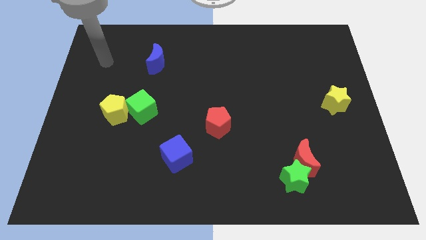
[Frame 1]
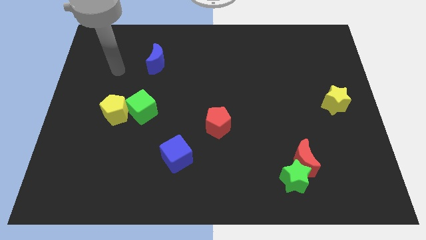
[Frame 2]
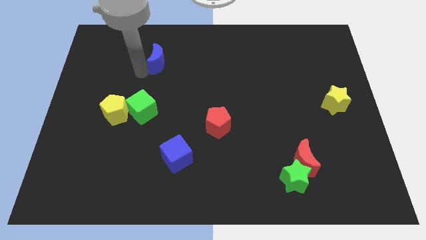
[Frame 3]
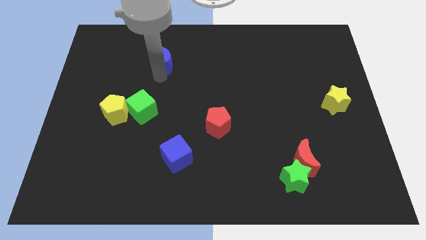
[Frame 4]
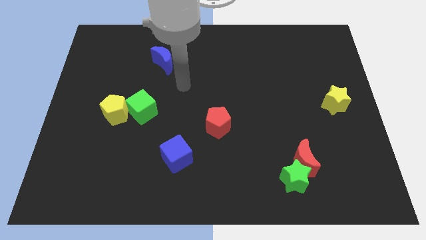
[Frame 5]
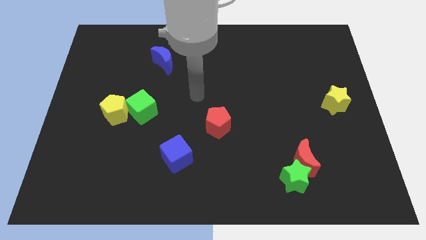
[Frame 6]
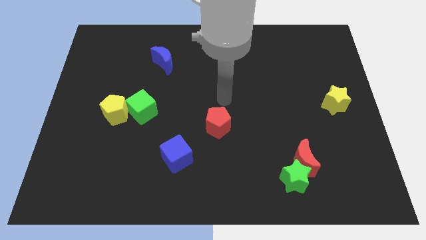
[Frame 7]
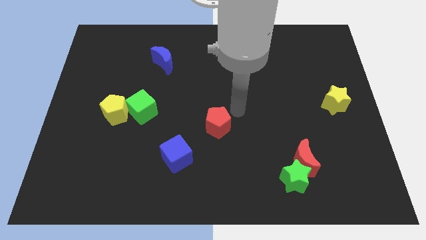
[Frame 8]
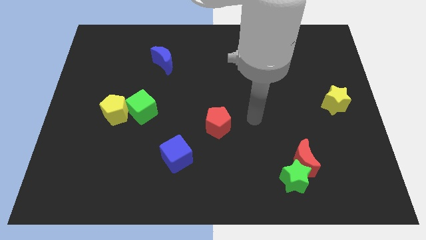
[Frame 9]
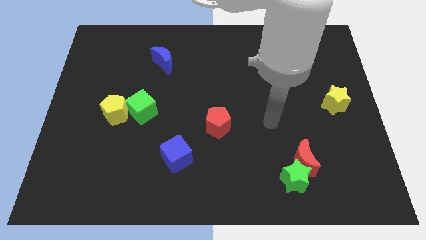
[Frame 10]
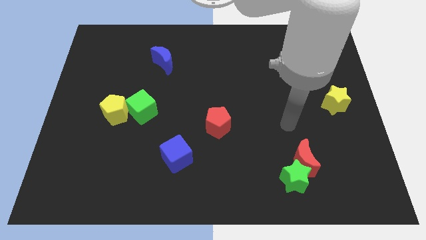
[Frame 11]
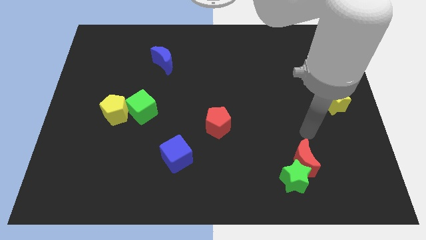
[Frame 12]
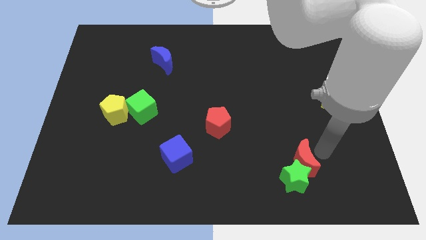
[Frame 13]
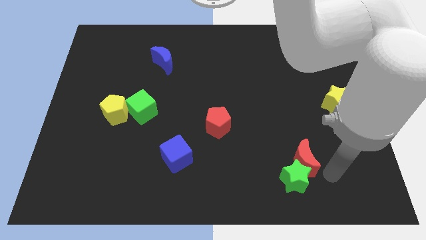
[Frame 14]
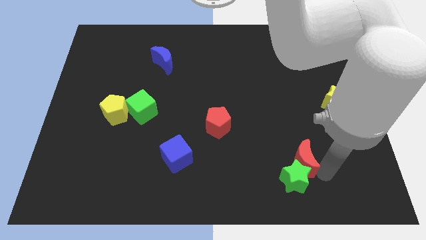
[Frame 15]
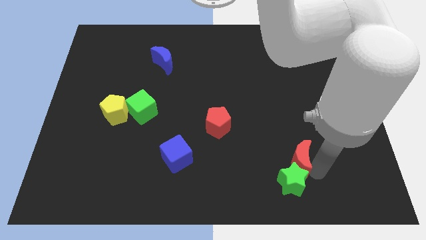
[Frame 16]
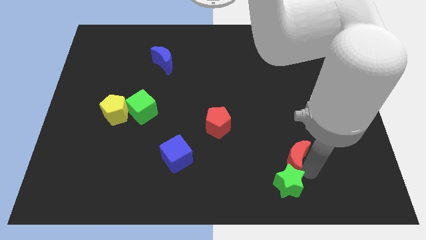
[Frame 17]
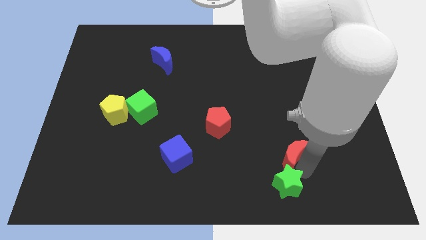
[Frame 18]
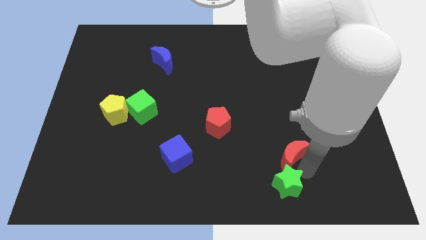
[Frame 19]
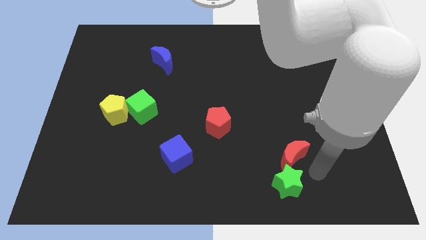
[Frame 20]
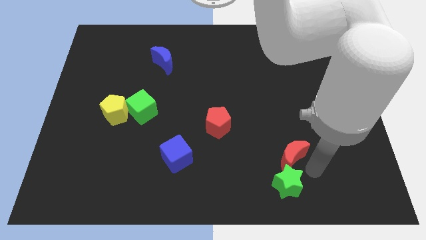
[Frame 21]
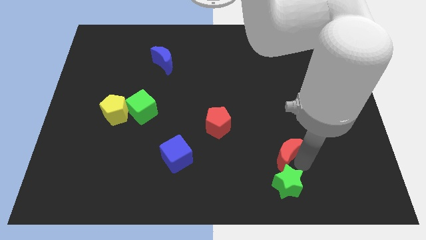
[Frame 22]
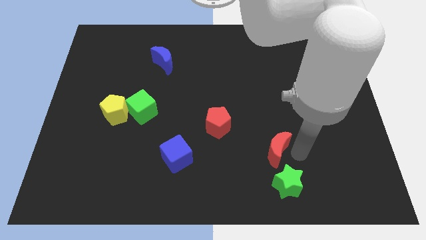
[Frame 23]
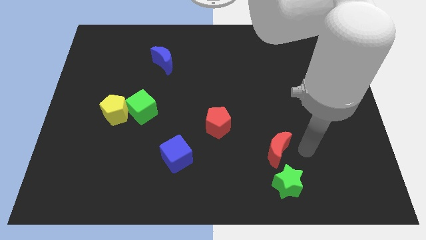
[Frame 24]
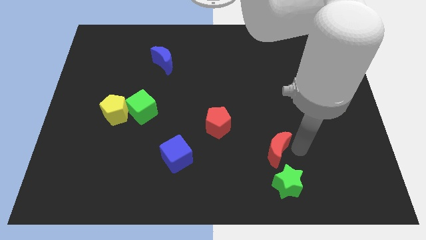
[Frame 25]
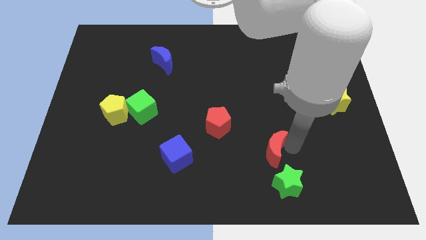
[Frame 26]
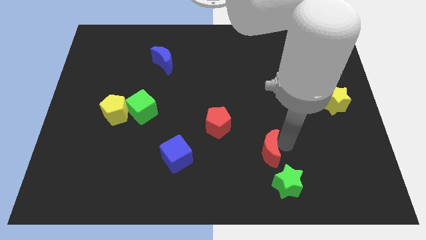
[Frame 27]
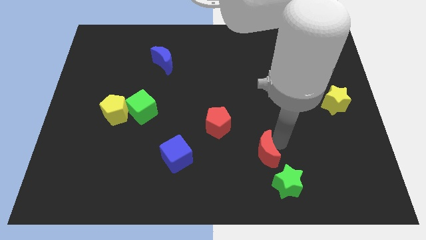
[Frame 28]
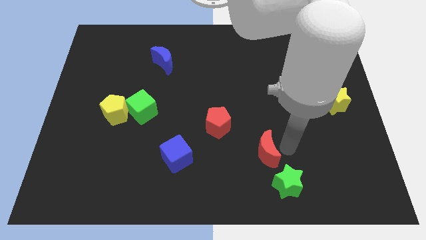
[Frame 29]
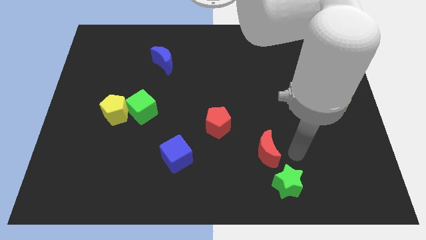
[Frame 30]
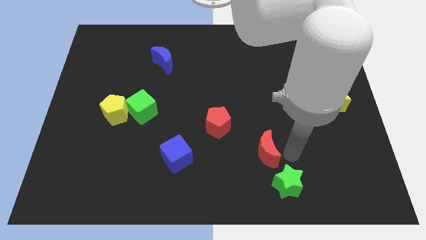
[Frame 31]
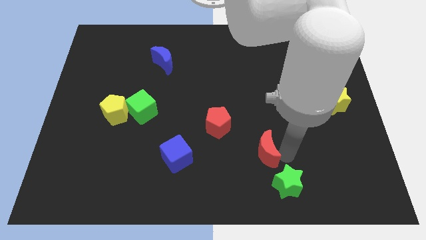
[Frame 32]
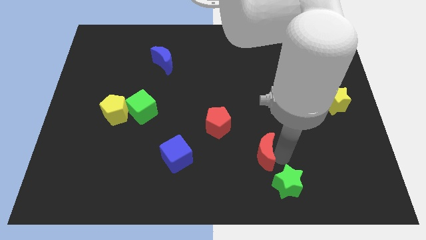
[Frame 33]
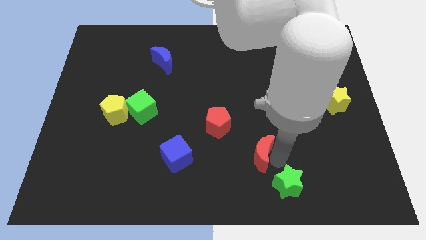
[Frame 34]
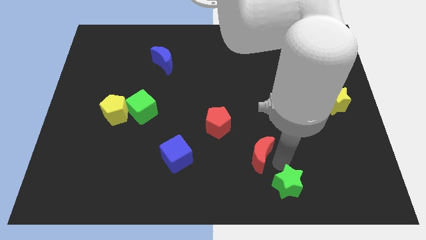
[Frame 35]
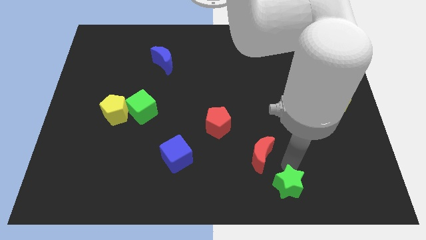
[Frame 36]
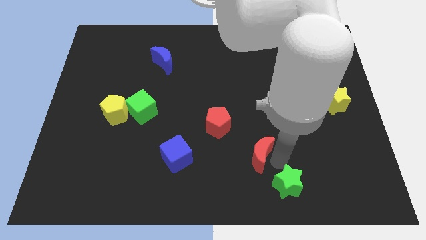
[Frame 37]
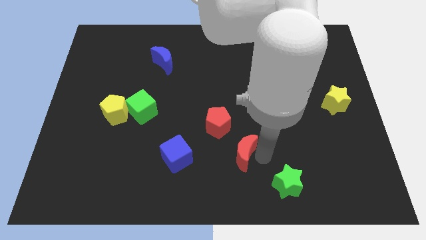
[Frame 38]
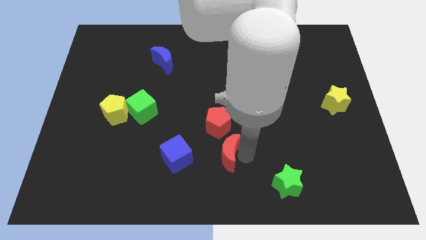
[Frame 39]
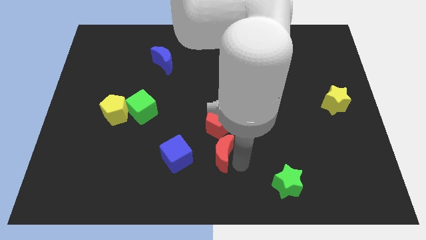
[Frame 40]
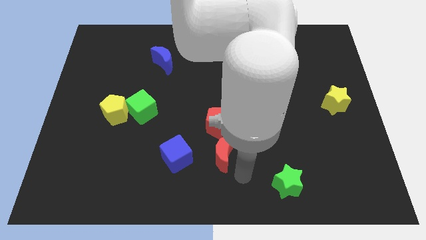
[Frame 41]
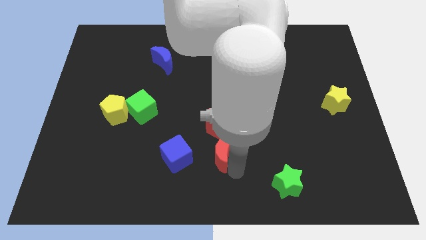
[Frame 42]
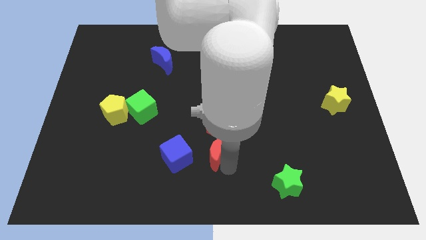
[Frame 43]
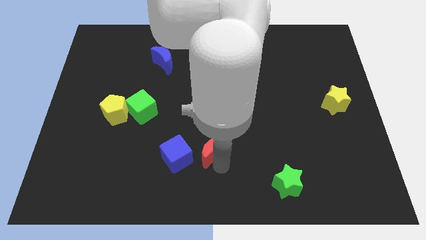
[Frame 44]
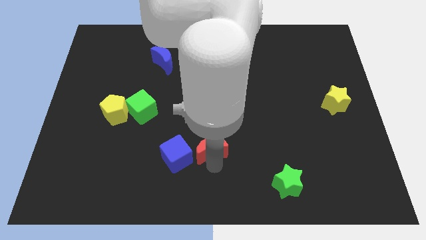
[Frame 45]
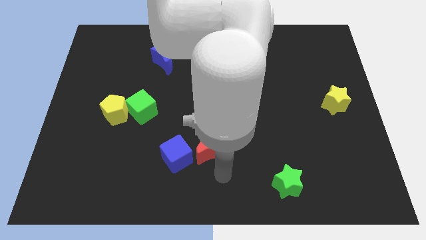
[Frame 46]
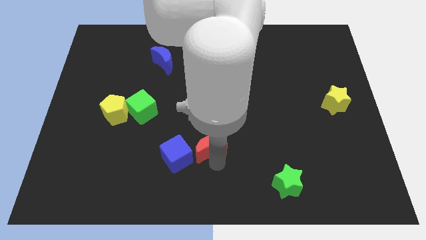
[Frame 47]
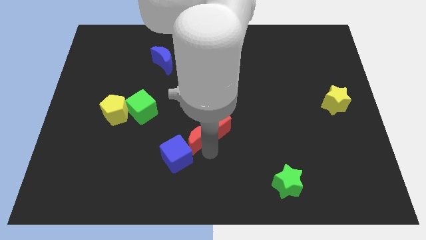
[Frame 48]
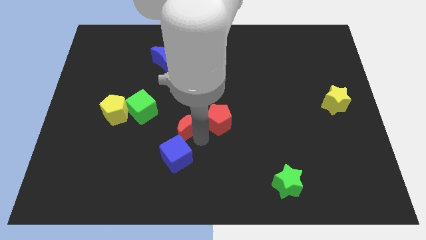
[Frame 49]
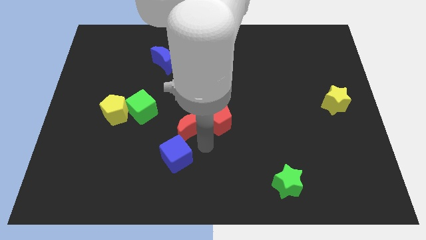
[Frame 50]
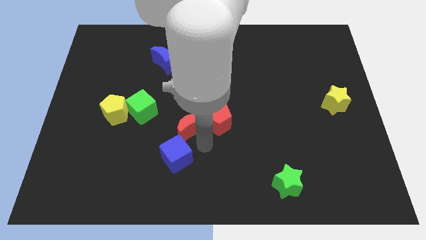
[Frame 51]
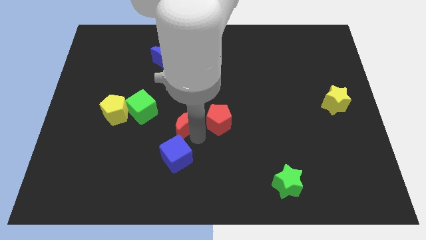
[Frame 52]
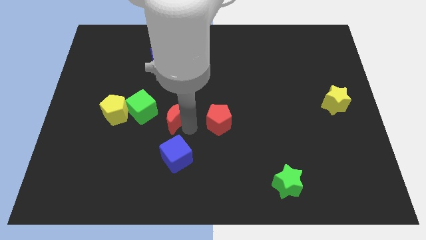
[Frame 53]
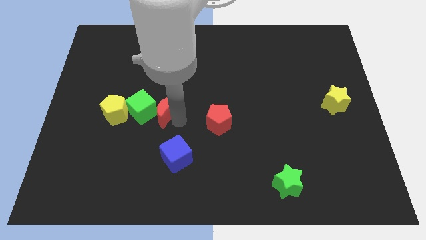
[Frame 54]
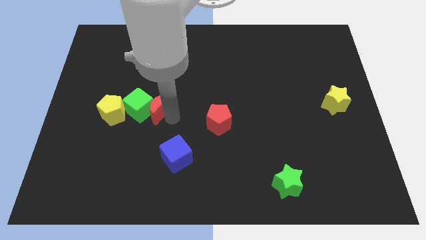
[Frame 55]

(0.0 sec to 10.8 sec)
move the red moon to the bottom side of the blue moon

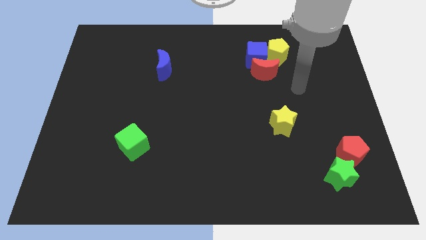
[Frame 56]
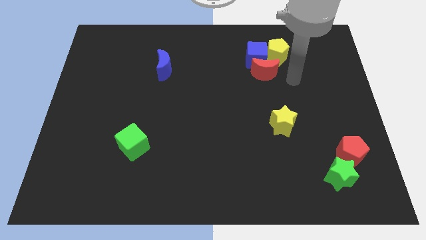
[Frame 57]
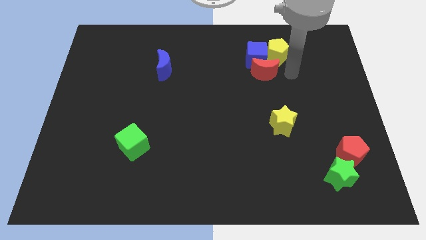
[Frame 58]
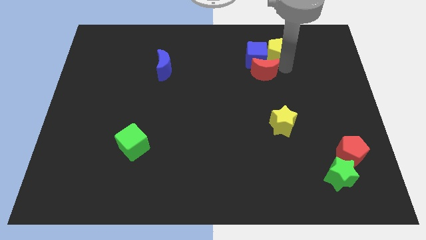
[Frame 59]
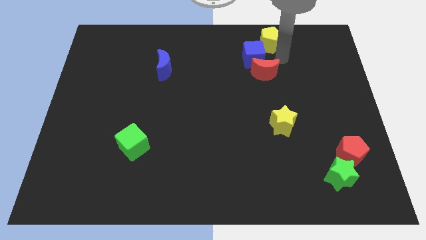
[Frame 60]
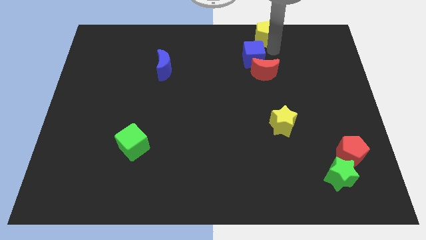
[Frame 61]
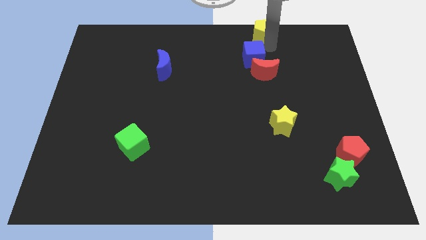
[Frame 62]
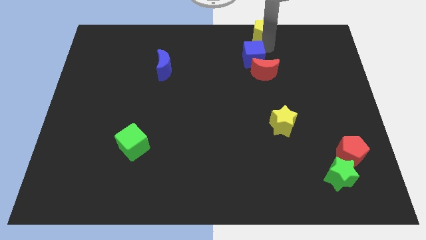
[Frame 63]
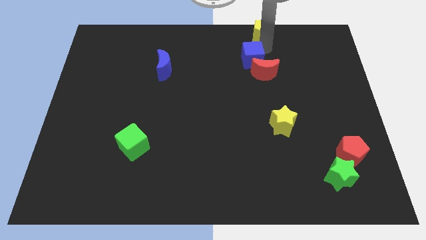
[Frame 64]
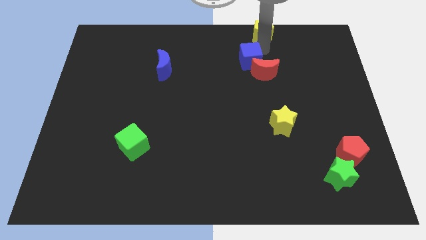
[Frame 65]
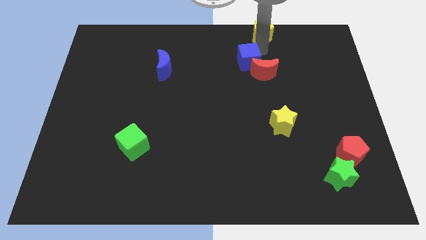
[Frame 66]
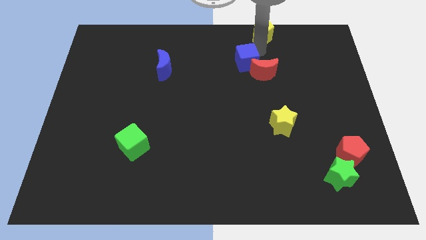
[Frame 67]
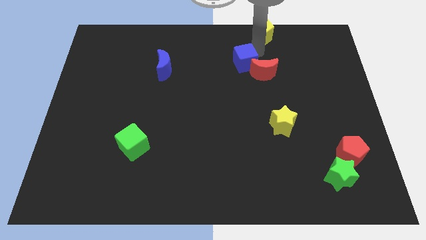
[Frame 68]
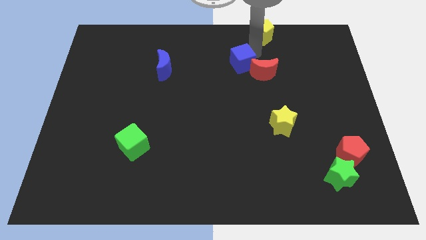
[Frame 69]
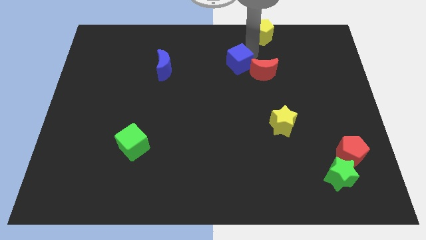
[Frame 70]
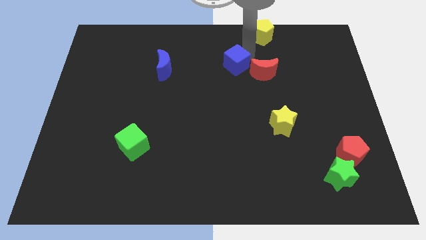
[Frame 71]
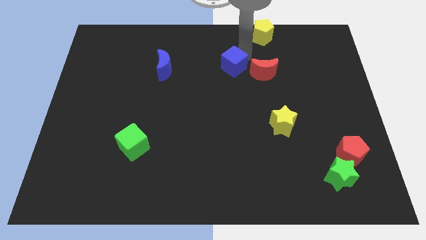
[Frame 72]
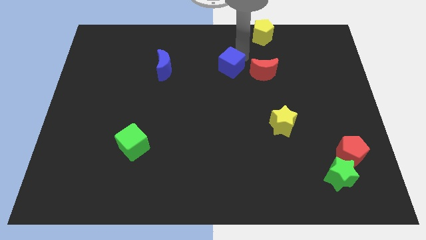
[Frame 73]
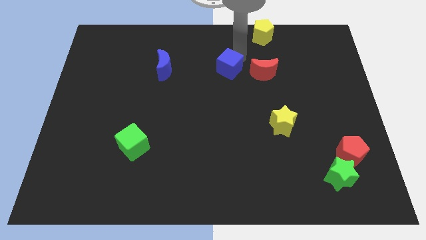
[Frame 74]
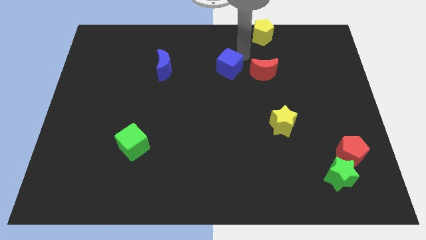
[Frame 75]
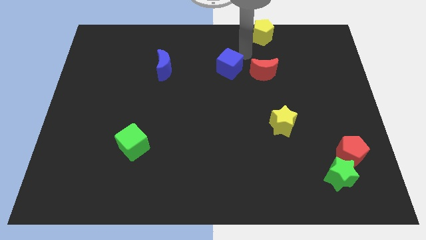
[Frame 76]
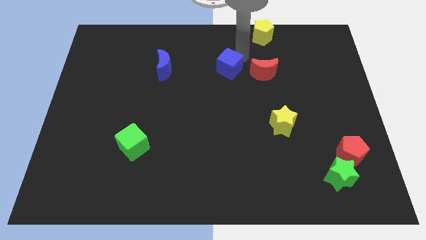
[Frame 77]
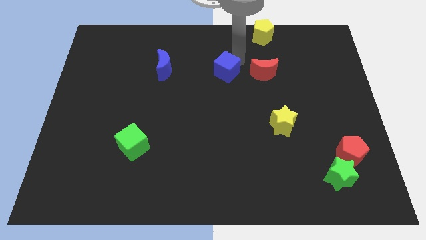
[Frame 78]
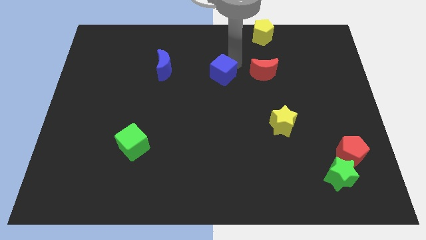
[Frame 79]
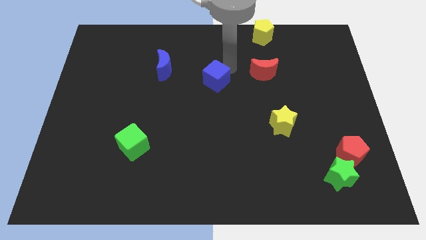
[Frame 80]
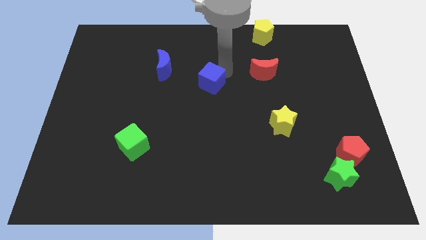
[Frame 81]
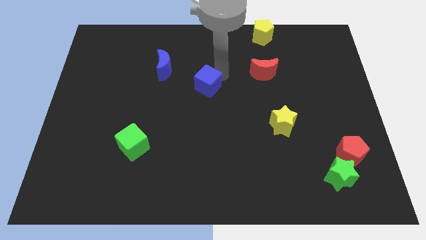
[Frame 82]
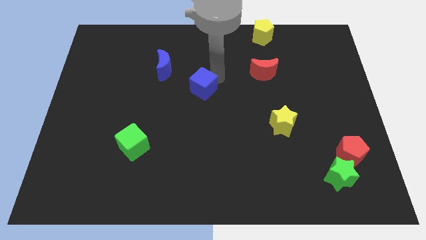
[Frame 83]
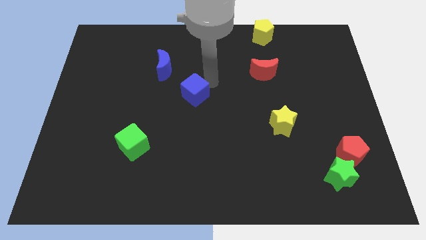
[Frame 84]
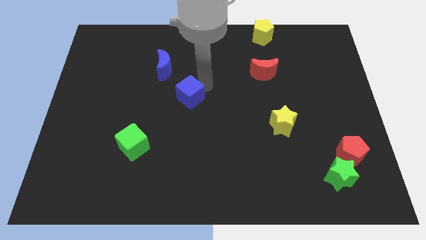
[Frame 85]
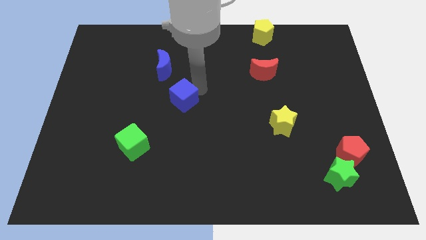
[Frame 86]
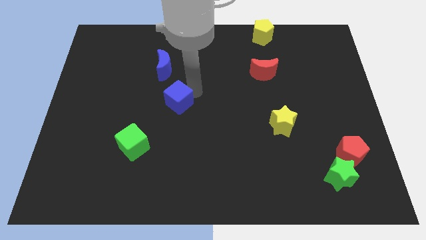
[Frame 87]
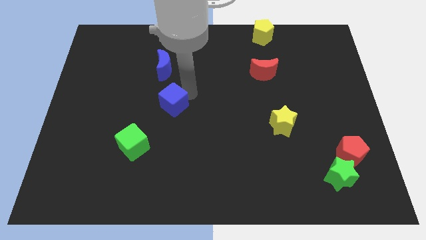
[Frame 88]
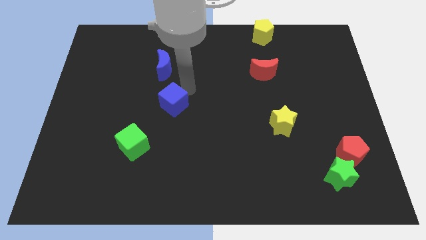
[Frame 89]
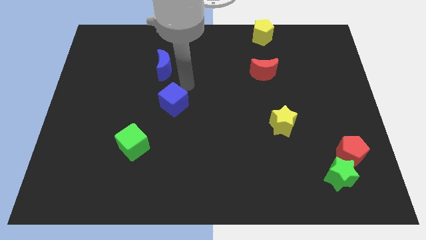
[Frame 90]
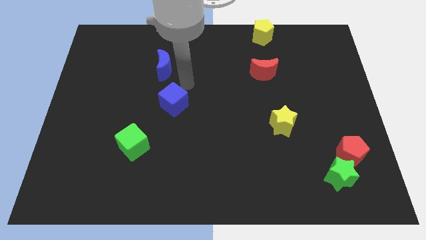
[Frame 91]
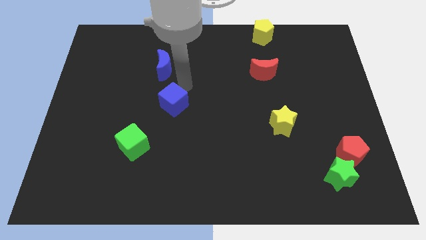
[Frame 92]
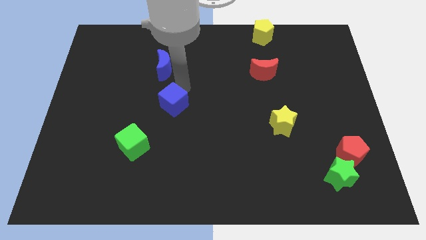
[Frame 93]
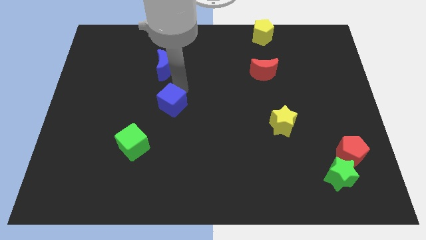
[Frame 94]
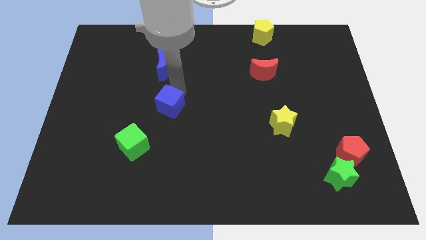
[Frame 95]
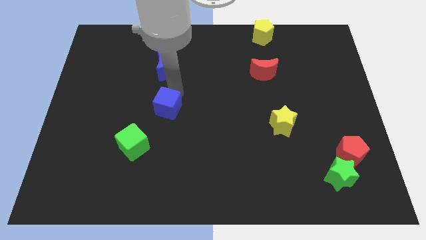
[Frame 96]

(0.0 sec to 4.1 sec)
slide the blue cube to the top right of the green cube
